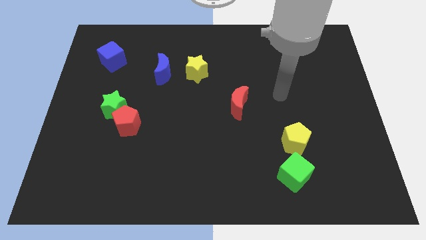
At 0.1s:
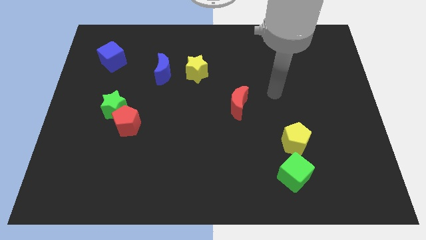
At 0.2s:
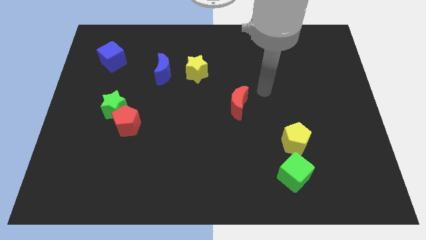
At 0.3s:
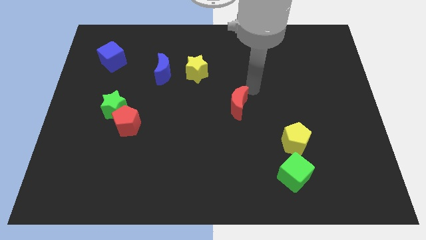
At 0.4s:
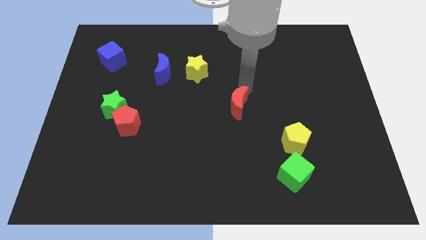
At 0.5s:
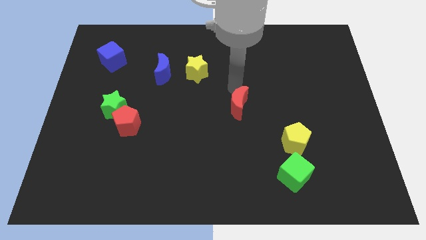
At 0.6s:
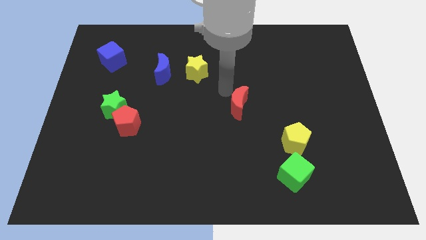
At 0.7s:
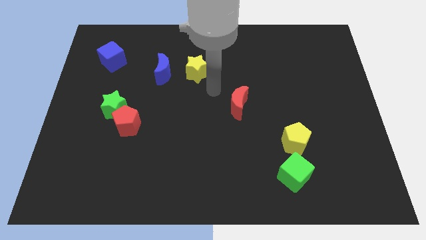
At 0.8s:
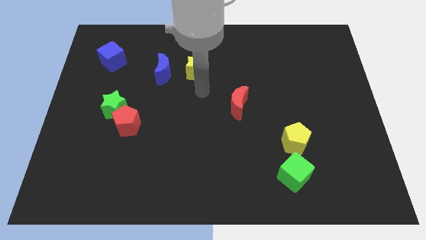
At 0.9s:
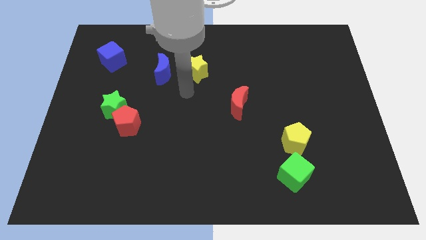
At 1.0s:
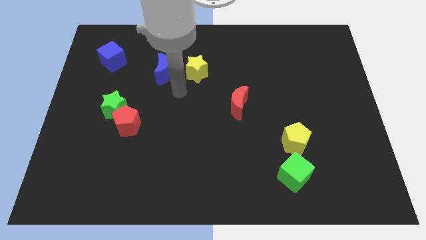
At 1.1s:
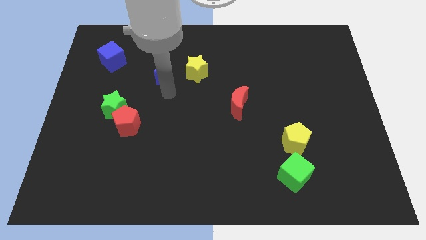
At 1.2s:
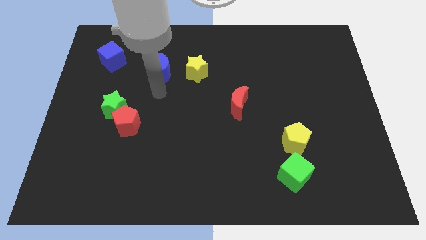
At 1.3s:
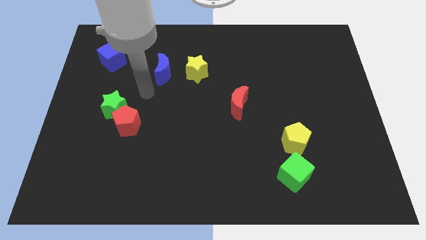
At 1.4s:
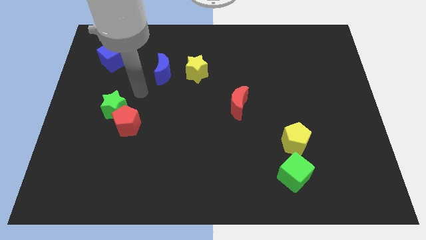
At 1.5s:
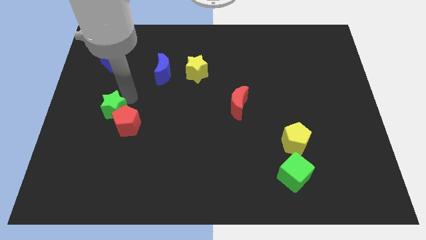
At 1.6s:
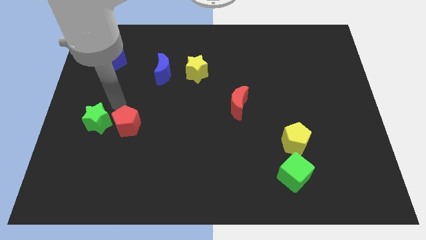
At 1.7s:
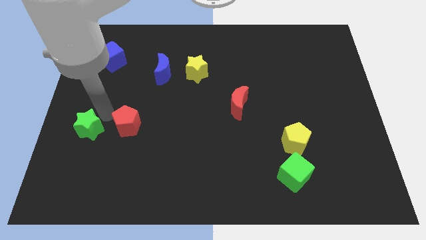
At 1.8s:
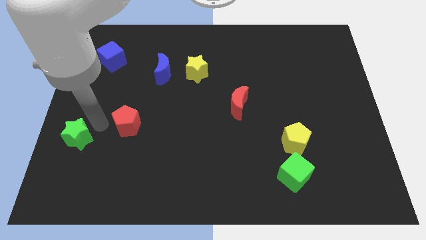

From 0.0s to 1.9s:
move the red pentagon away from the green star

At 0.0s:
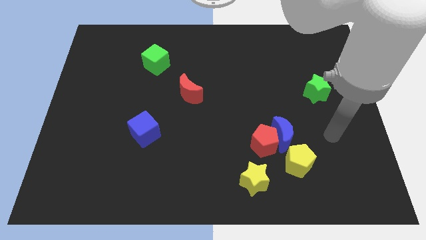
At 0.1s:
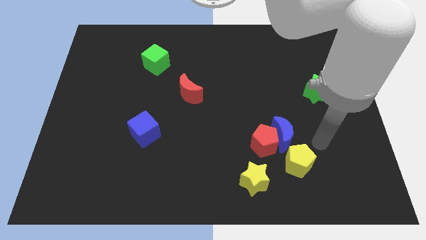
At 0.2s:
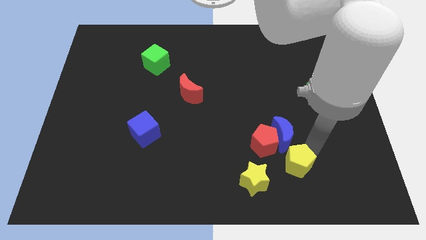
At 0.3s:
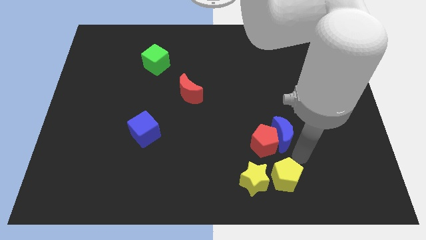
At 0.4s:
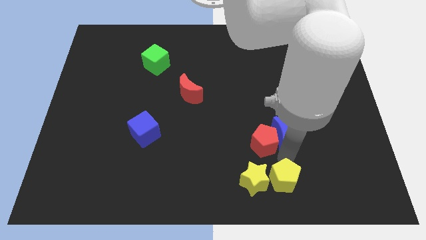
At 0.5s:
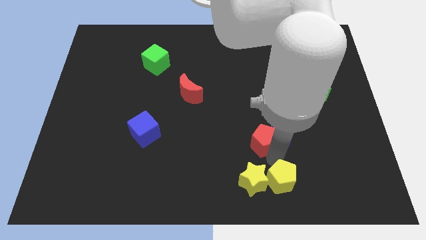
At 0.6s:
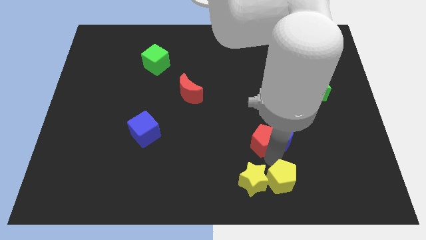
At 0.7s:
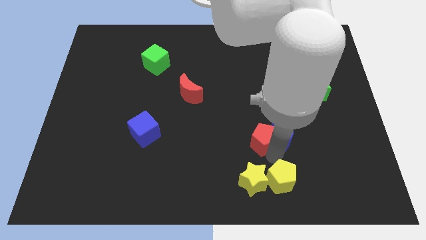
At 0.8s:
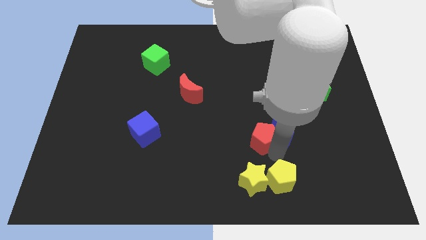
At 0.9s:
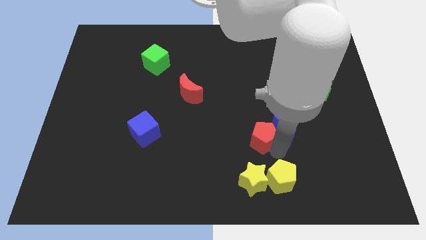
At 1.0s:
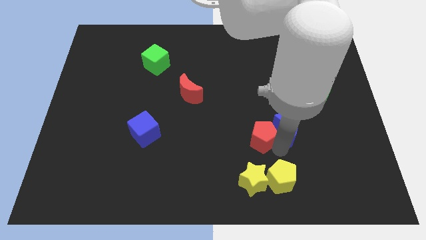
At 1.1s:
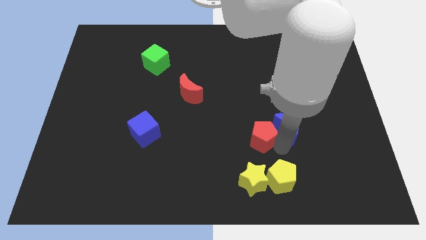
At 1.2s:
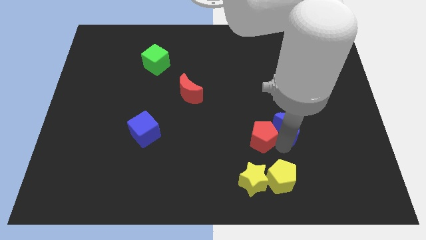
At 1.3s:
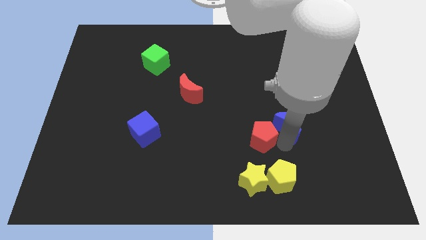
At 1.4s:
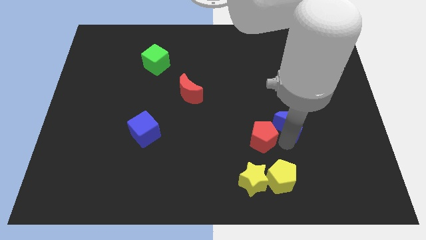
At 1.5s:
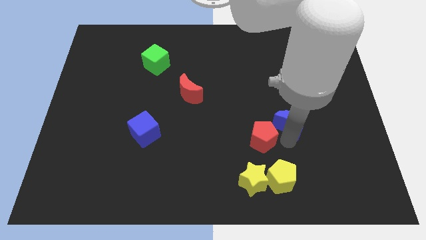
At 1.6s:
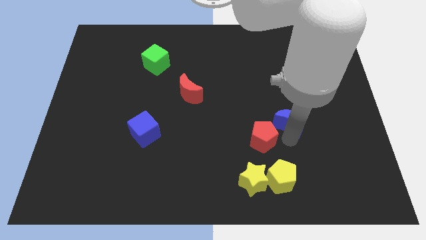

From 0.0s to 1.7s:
separate the blue moon from the red pentagon and yellow pentagon

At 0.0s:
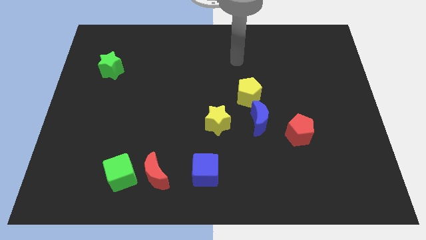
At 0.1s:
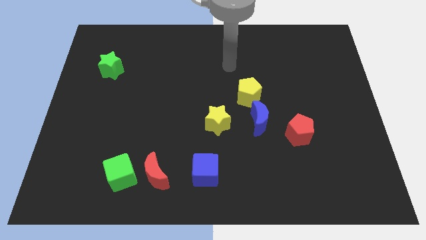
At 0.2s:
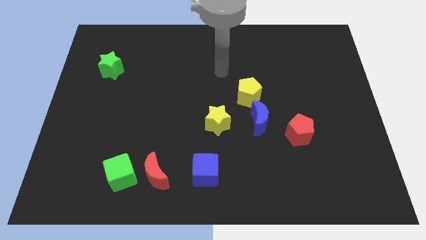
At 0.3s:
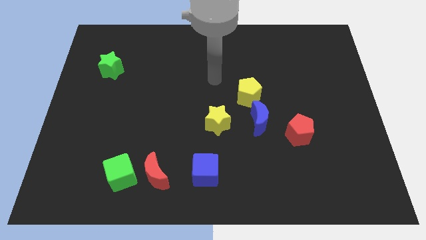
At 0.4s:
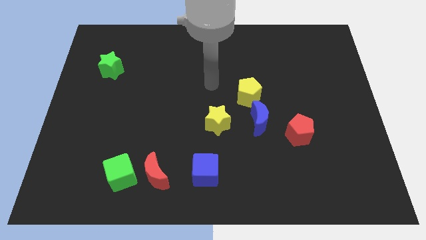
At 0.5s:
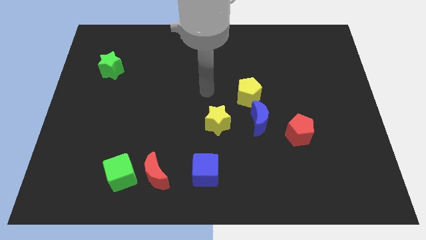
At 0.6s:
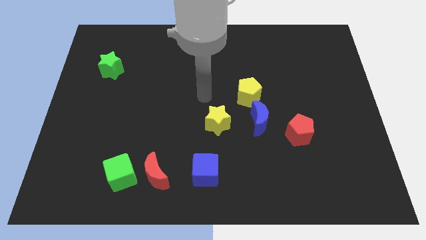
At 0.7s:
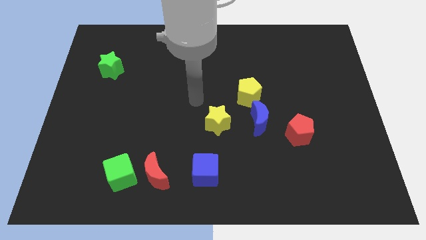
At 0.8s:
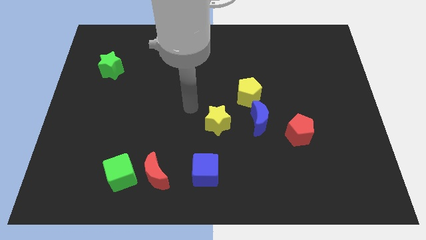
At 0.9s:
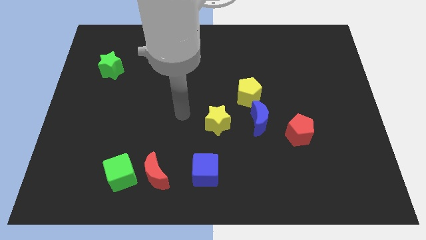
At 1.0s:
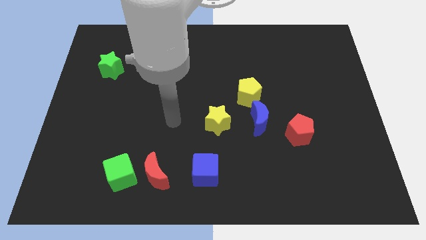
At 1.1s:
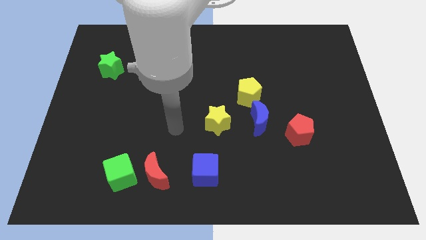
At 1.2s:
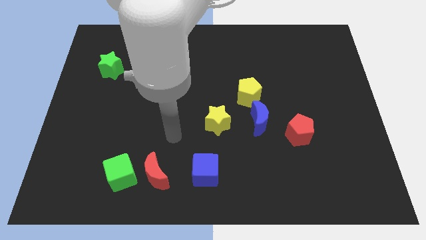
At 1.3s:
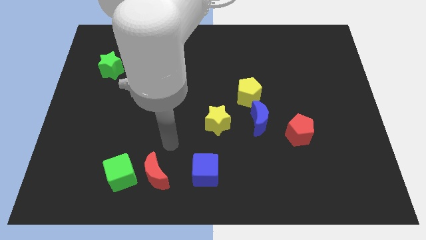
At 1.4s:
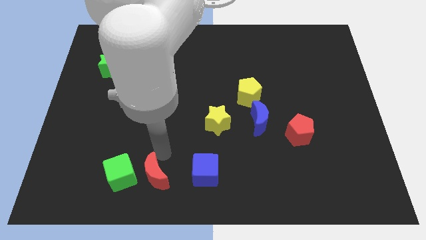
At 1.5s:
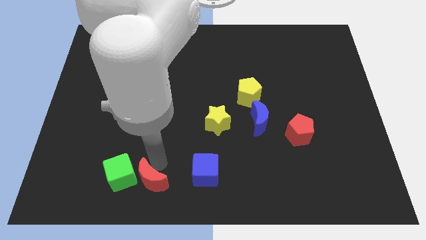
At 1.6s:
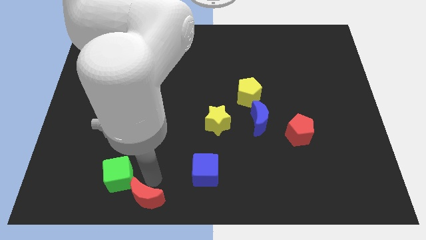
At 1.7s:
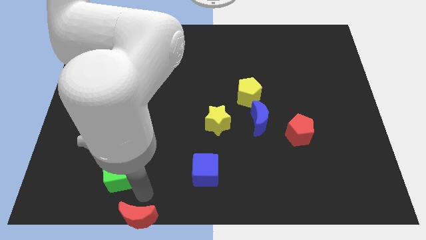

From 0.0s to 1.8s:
pull the green cube apart from the red moon

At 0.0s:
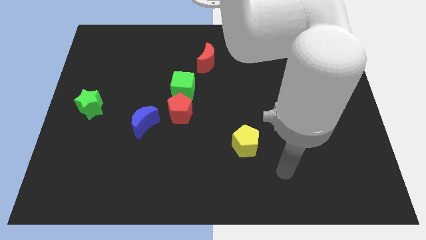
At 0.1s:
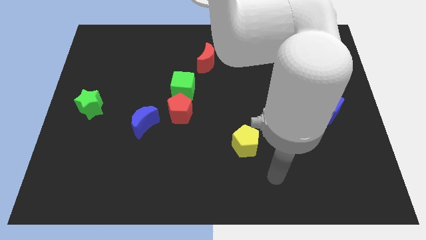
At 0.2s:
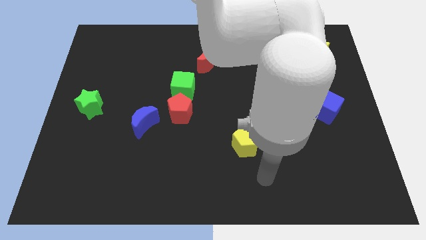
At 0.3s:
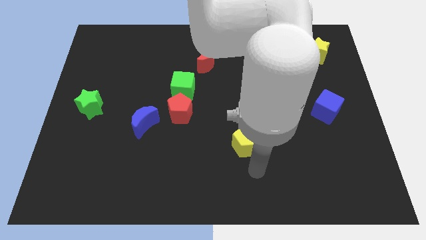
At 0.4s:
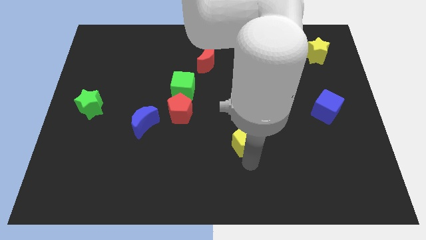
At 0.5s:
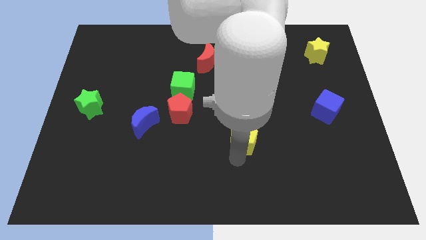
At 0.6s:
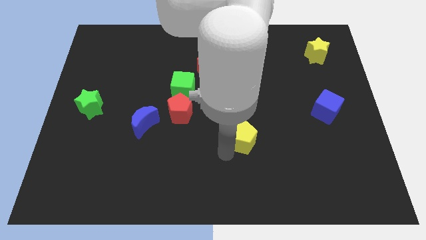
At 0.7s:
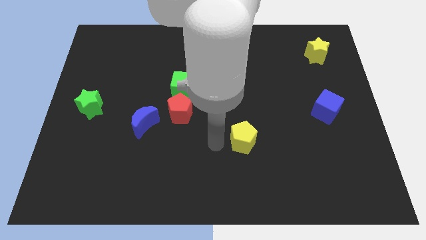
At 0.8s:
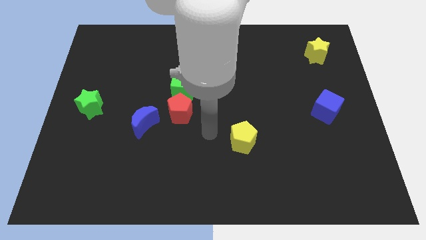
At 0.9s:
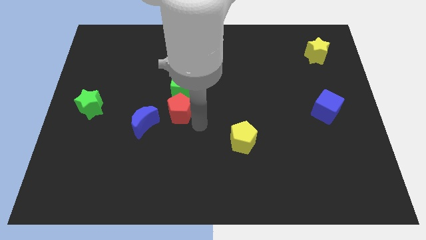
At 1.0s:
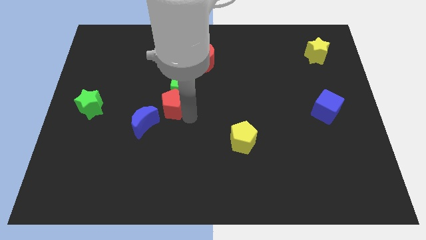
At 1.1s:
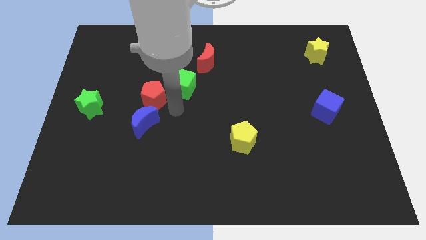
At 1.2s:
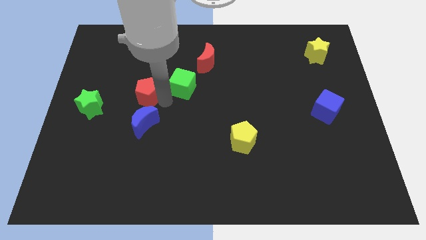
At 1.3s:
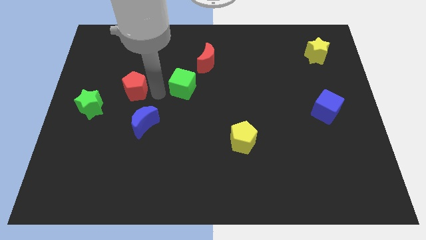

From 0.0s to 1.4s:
move the green cube away from the red pentagon

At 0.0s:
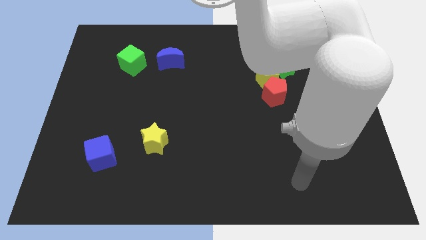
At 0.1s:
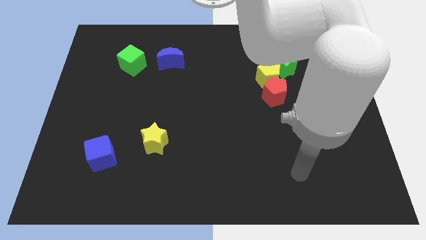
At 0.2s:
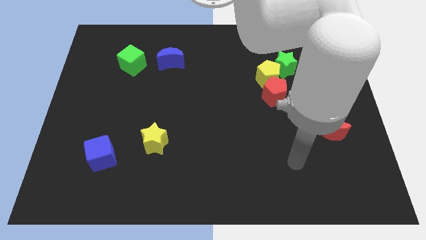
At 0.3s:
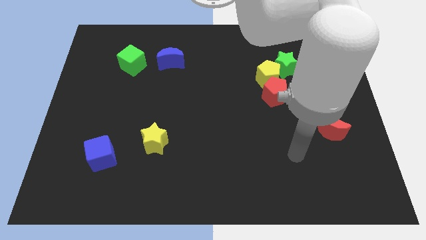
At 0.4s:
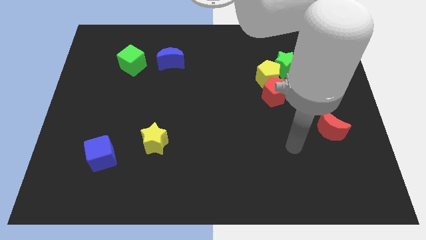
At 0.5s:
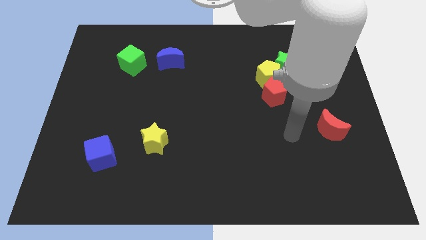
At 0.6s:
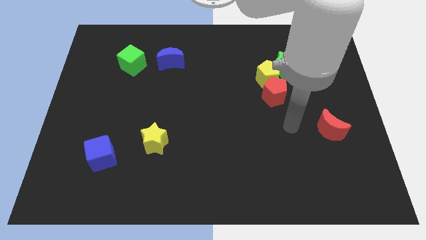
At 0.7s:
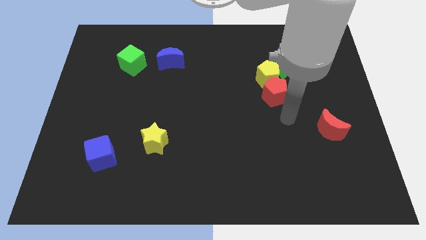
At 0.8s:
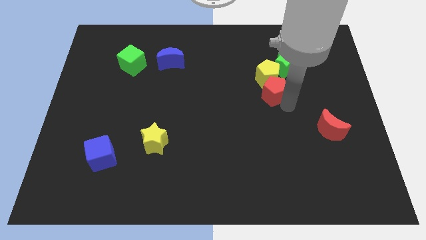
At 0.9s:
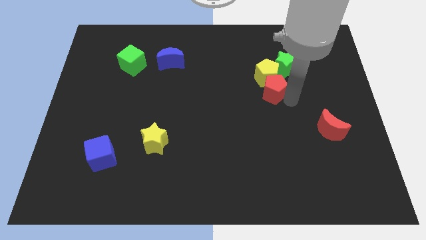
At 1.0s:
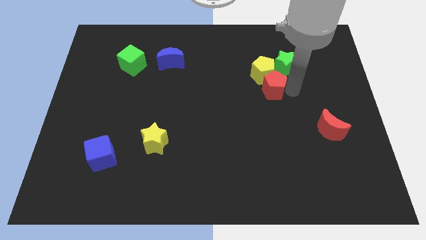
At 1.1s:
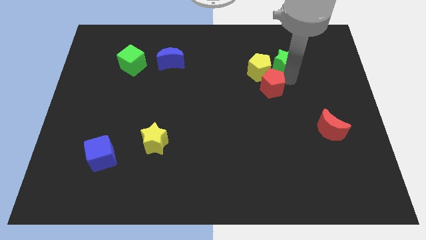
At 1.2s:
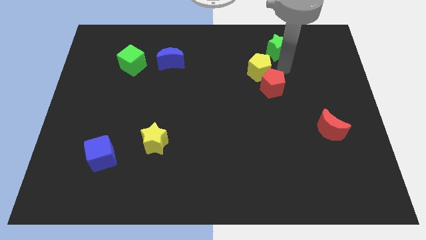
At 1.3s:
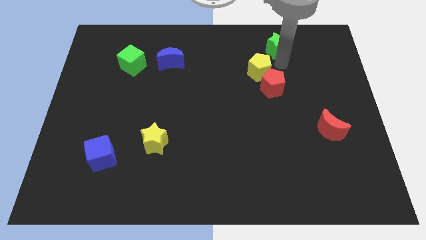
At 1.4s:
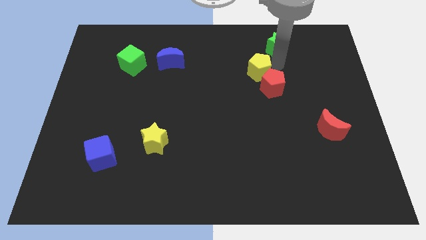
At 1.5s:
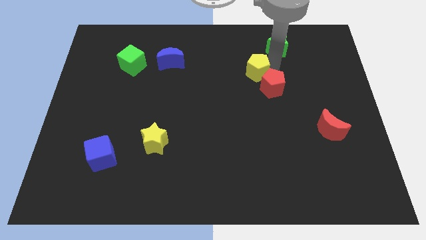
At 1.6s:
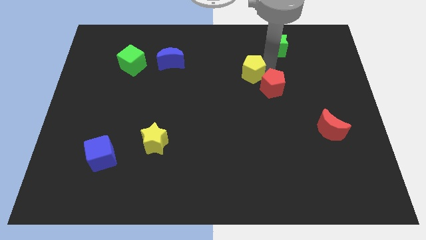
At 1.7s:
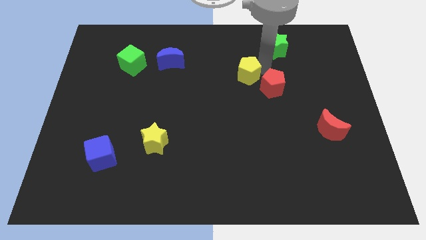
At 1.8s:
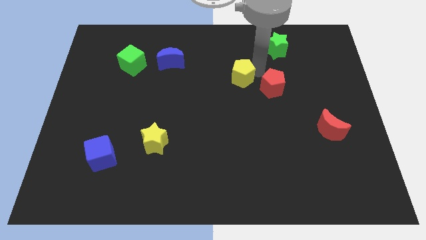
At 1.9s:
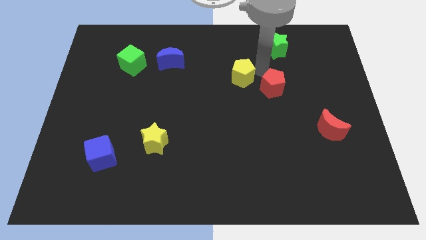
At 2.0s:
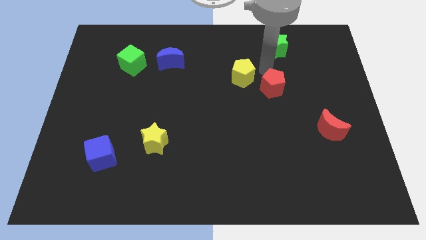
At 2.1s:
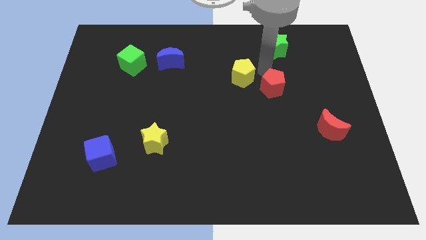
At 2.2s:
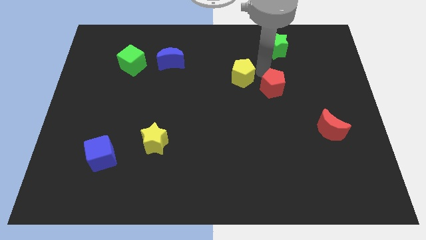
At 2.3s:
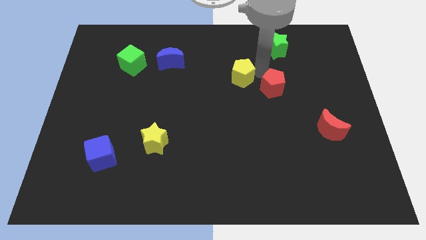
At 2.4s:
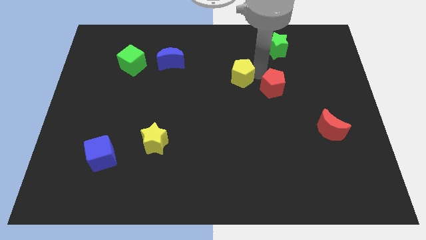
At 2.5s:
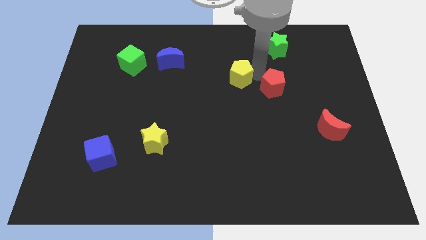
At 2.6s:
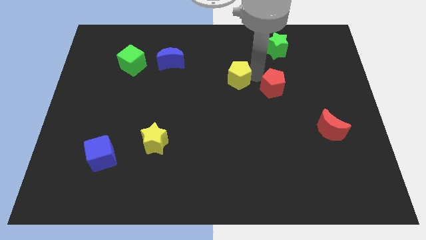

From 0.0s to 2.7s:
move the yellow pentagon away from the red pentagon and green star
